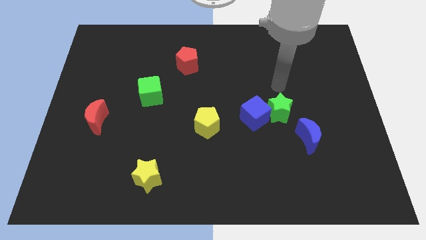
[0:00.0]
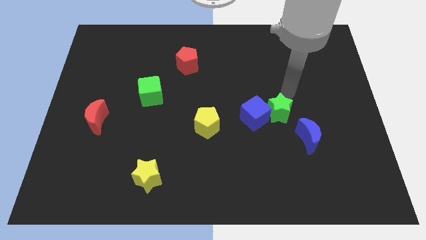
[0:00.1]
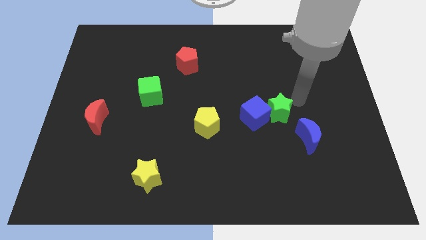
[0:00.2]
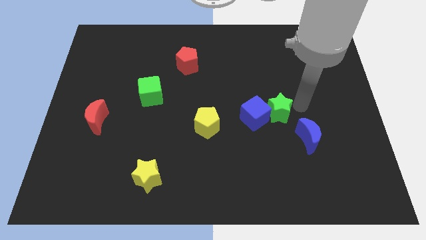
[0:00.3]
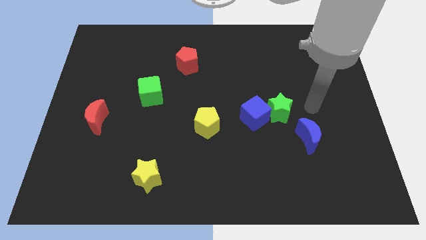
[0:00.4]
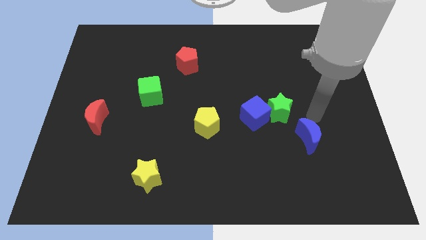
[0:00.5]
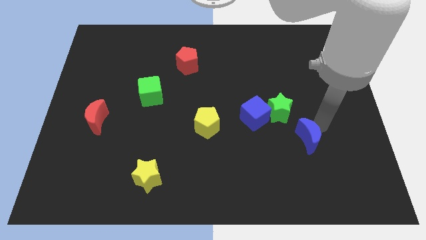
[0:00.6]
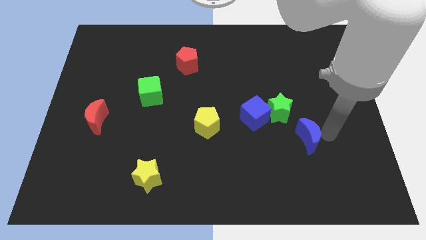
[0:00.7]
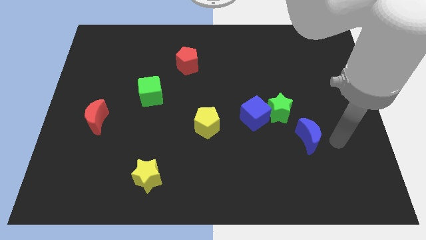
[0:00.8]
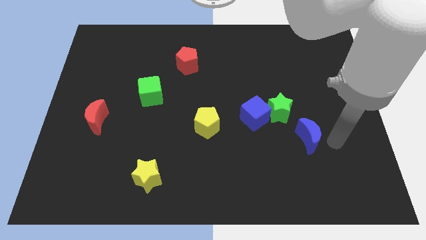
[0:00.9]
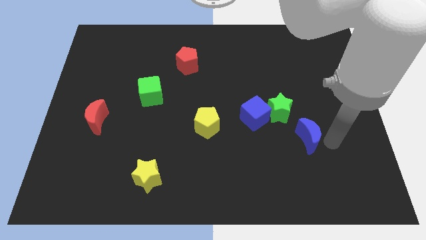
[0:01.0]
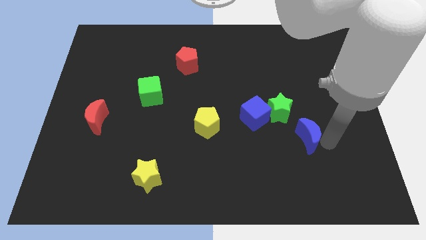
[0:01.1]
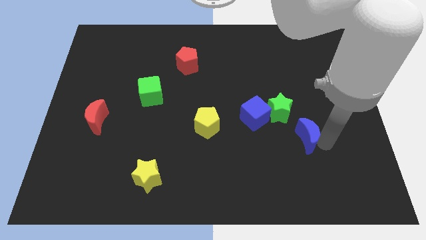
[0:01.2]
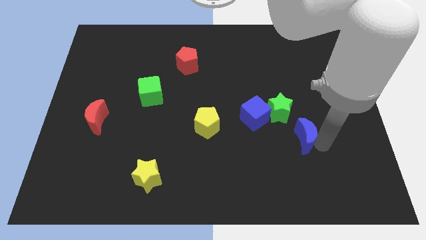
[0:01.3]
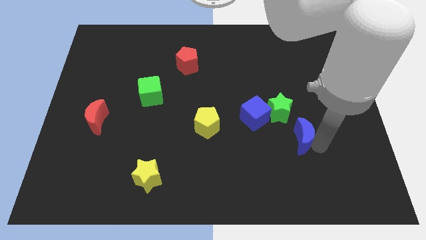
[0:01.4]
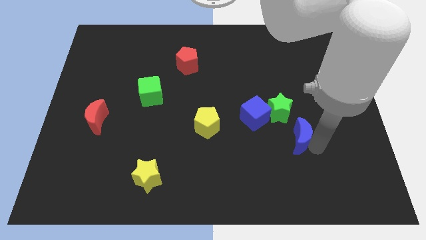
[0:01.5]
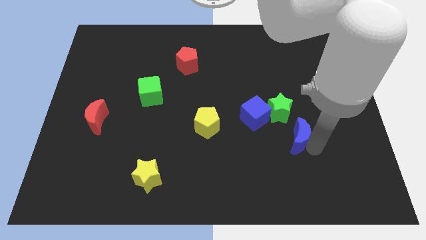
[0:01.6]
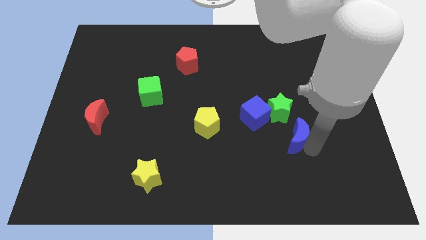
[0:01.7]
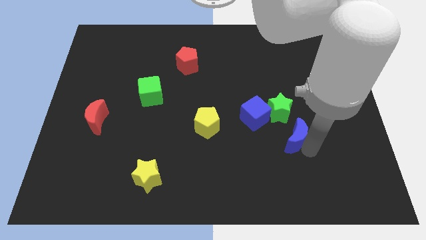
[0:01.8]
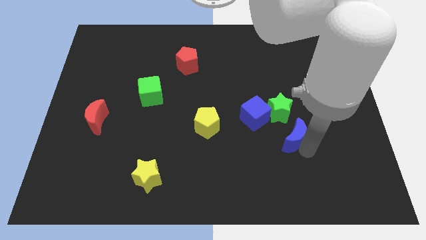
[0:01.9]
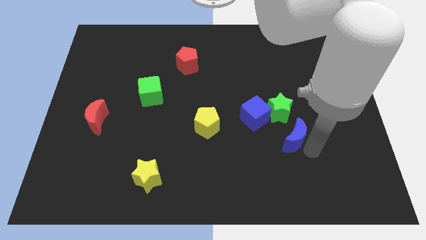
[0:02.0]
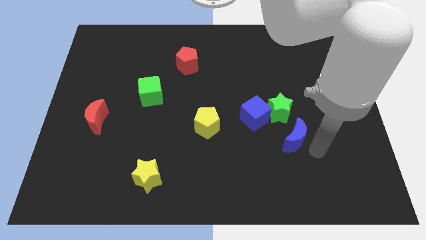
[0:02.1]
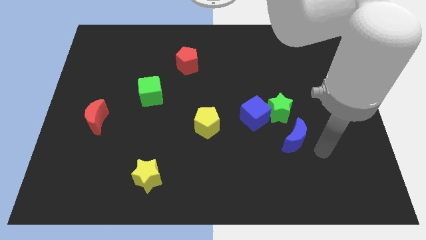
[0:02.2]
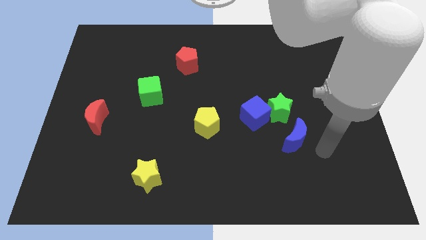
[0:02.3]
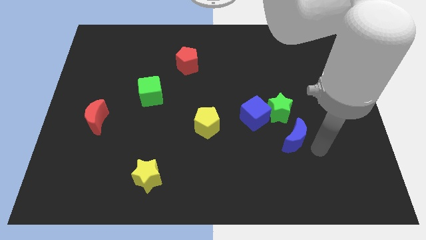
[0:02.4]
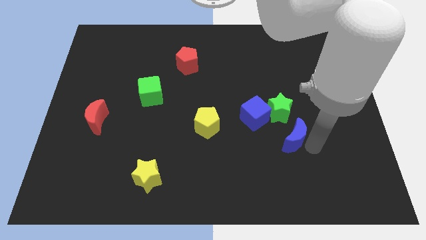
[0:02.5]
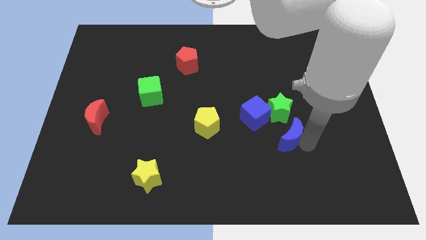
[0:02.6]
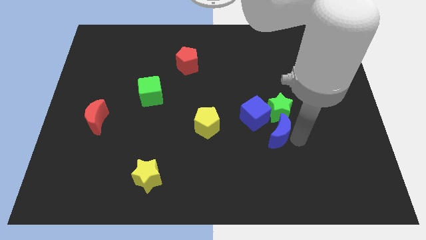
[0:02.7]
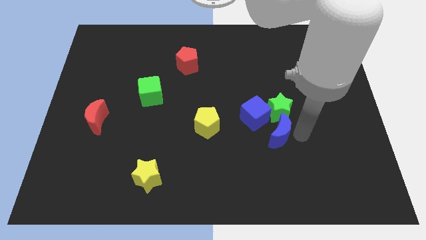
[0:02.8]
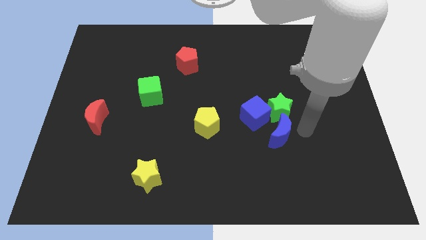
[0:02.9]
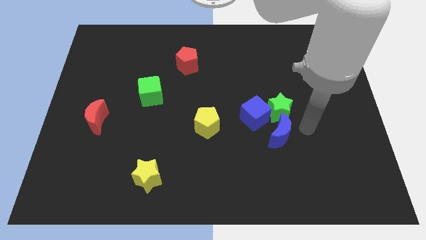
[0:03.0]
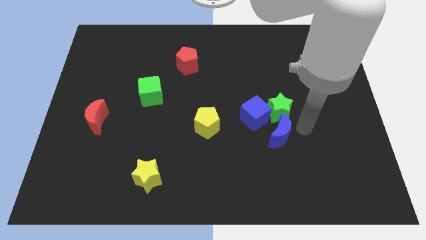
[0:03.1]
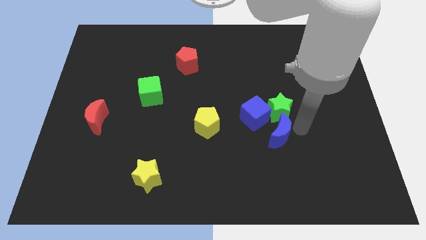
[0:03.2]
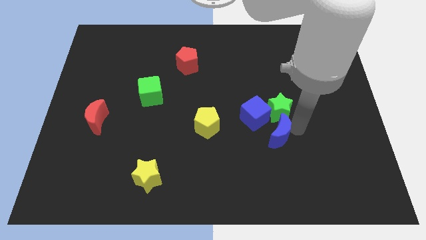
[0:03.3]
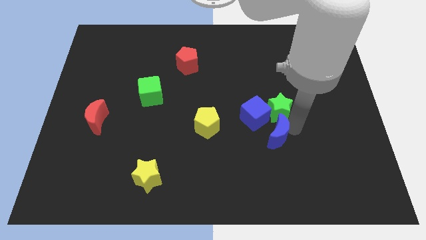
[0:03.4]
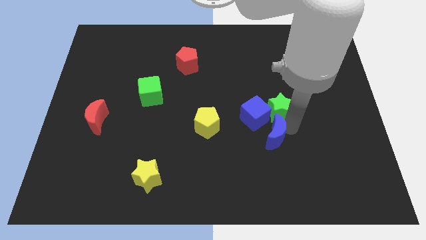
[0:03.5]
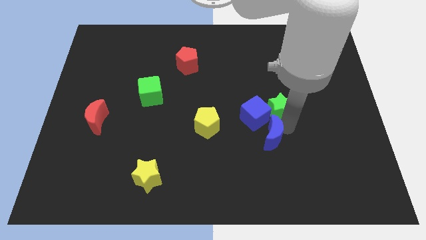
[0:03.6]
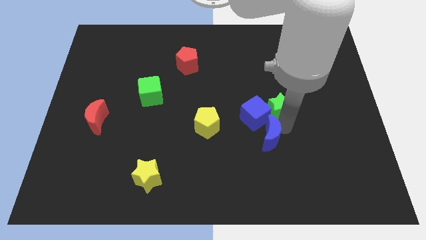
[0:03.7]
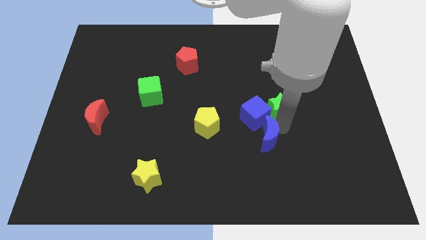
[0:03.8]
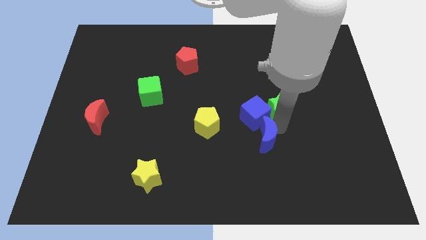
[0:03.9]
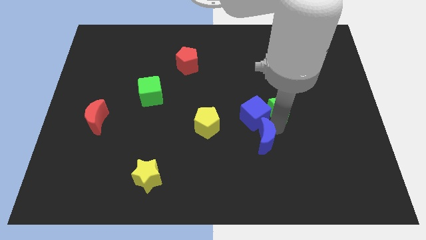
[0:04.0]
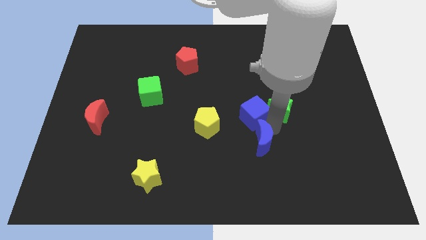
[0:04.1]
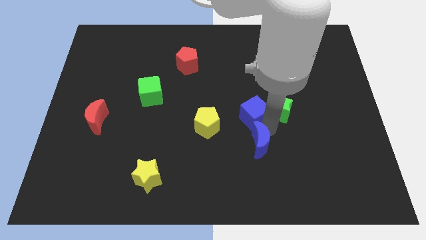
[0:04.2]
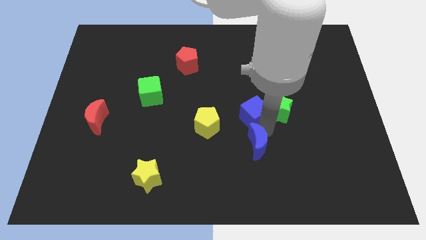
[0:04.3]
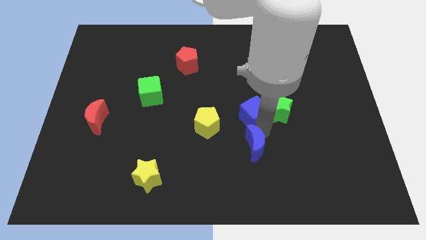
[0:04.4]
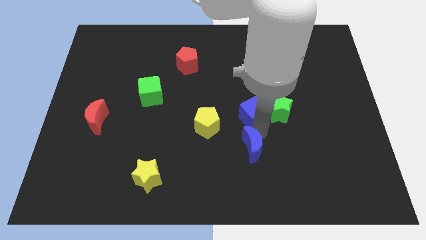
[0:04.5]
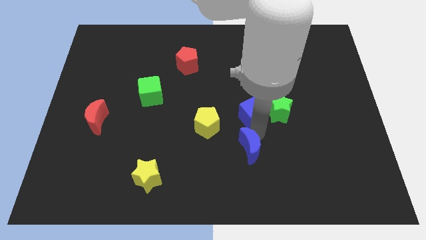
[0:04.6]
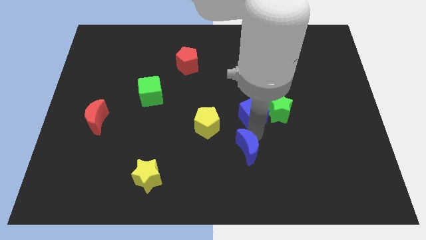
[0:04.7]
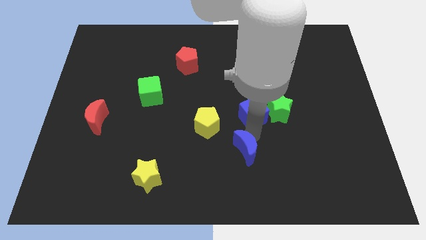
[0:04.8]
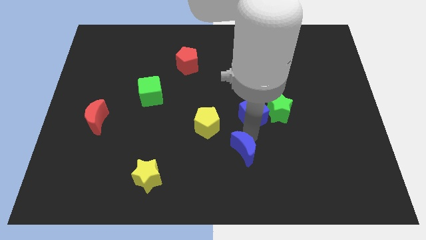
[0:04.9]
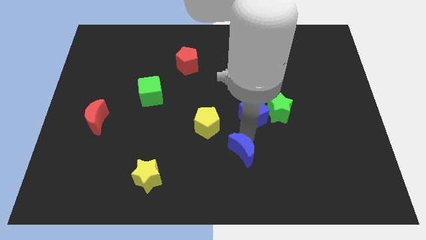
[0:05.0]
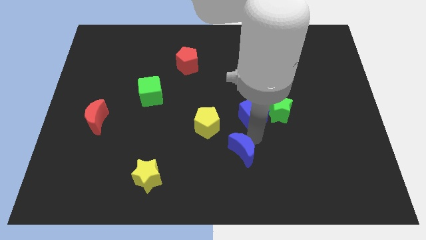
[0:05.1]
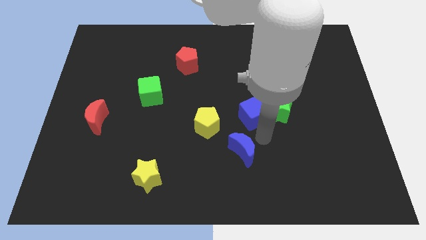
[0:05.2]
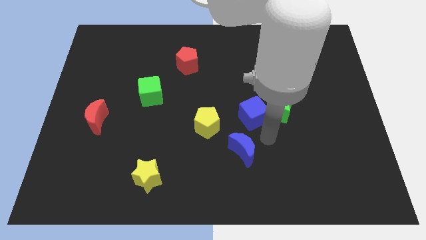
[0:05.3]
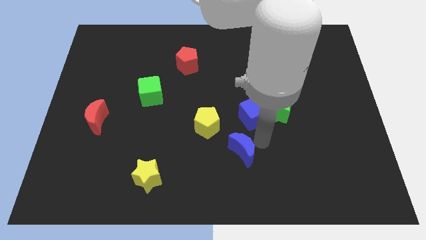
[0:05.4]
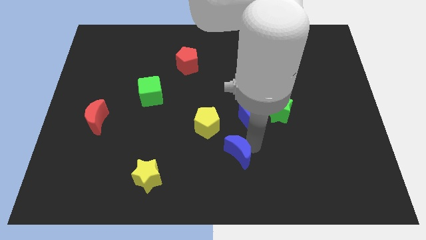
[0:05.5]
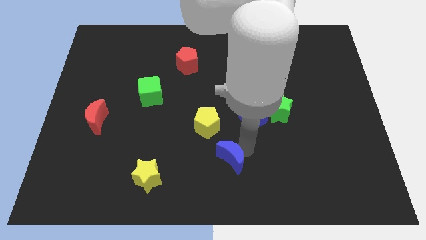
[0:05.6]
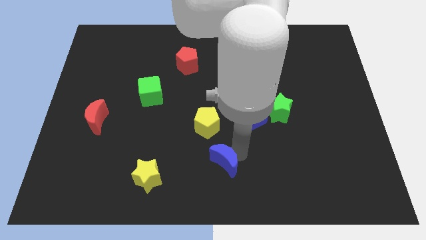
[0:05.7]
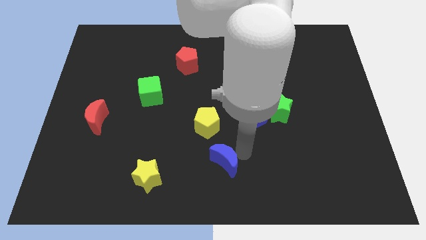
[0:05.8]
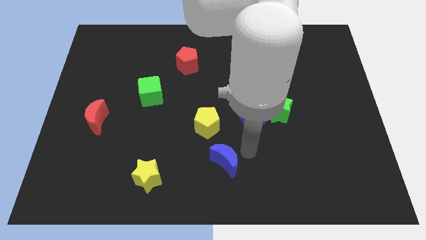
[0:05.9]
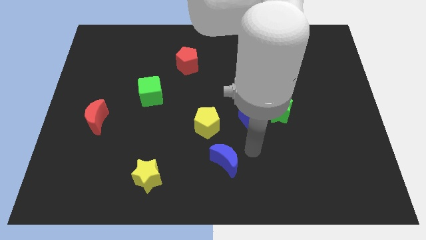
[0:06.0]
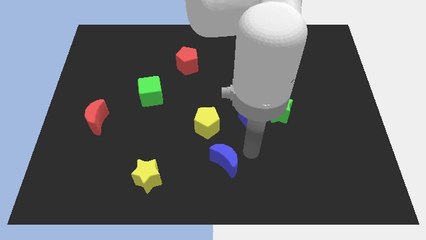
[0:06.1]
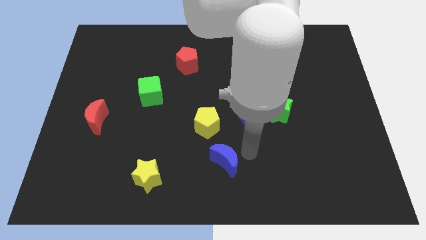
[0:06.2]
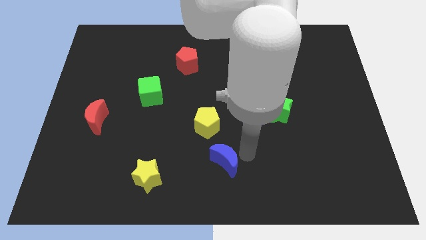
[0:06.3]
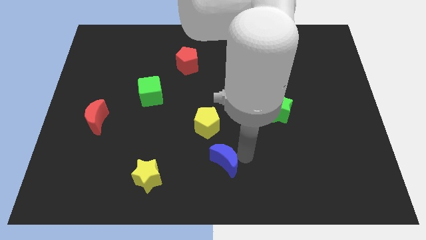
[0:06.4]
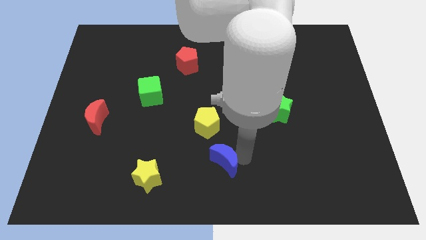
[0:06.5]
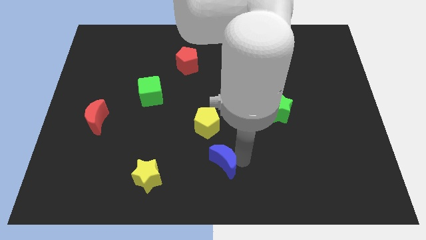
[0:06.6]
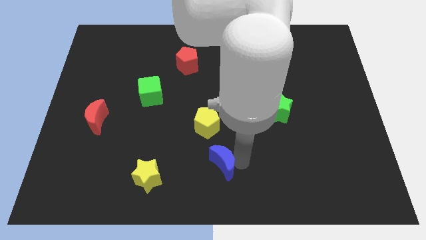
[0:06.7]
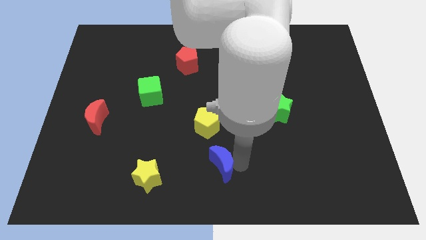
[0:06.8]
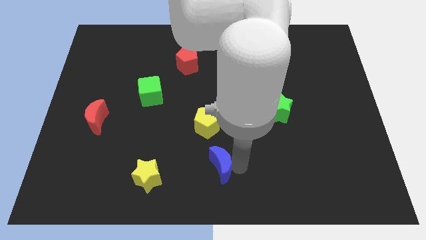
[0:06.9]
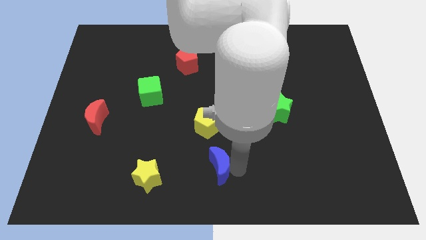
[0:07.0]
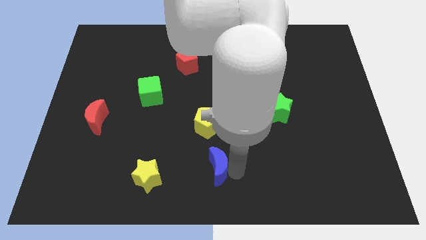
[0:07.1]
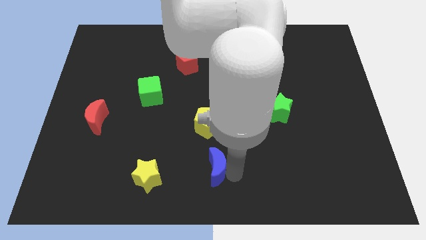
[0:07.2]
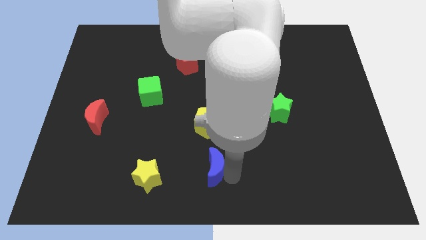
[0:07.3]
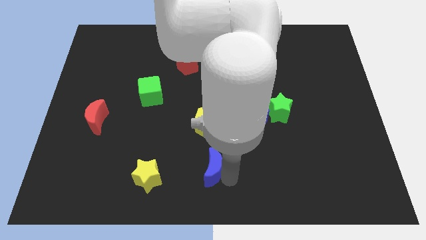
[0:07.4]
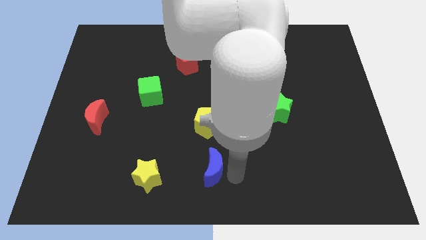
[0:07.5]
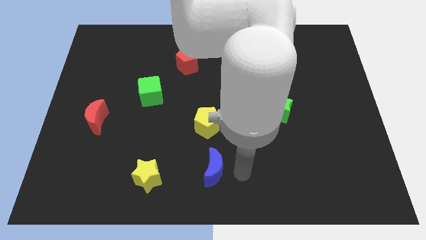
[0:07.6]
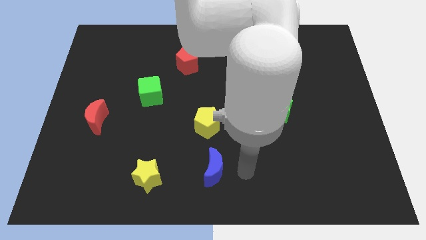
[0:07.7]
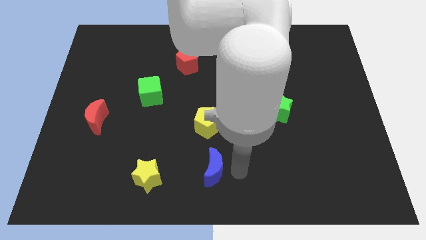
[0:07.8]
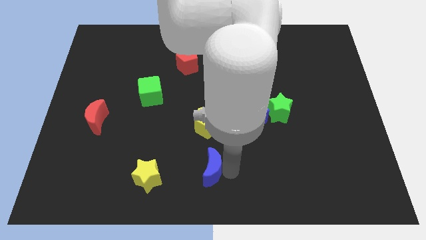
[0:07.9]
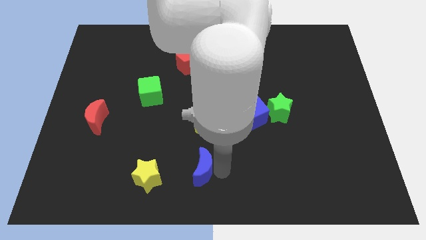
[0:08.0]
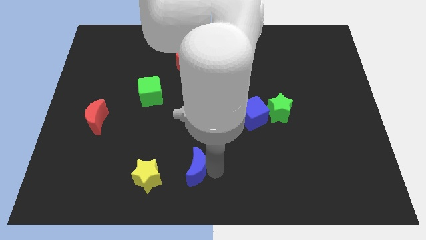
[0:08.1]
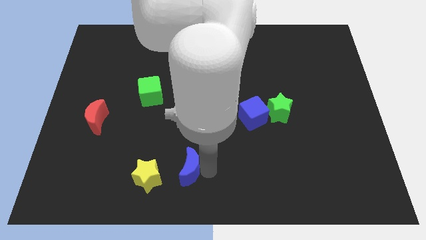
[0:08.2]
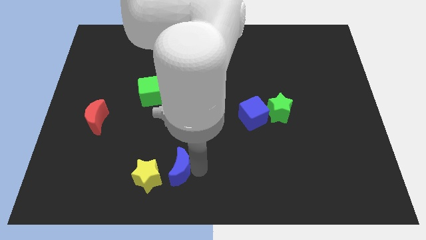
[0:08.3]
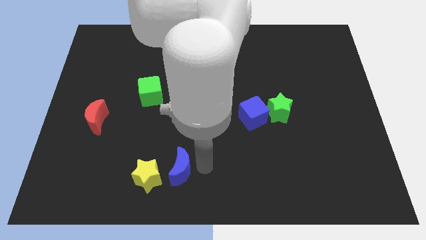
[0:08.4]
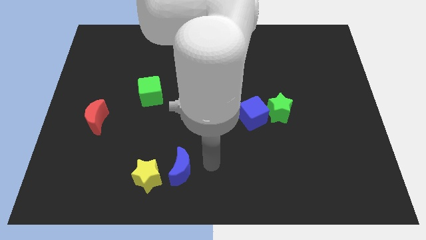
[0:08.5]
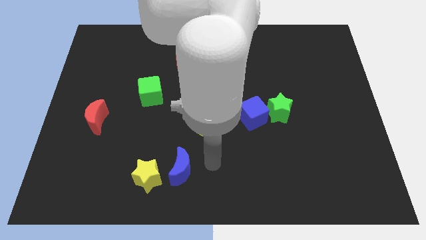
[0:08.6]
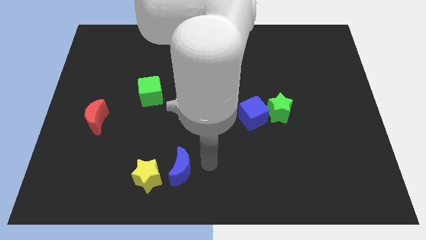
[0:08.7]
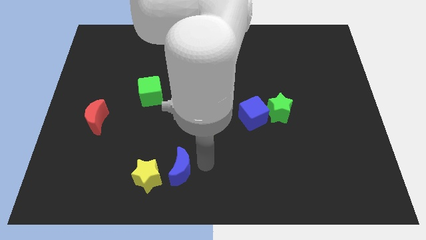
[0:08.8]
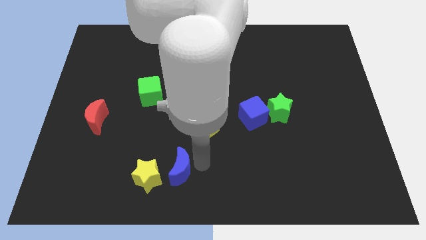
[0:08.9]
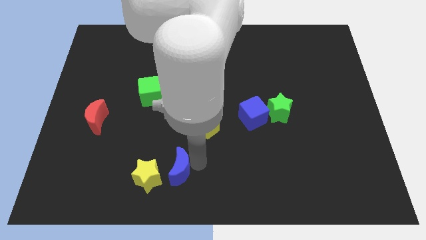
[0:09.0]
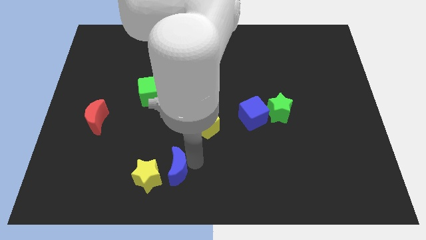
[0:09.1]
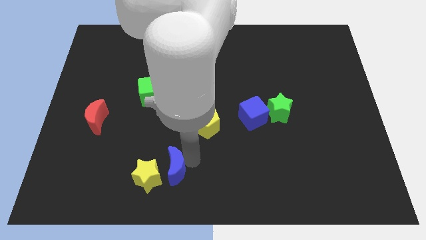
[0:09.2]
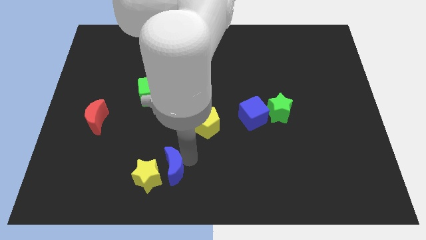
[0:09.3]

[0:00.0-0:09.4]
slide the blue moon to the yellow star
